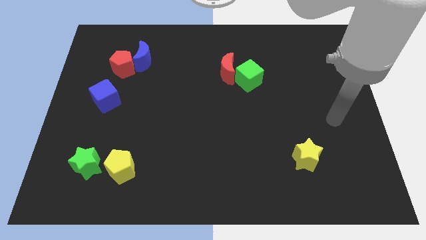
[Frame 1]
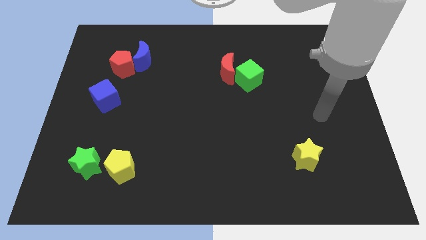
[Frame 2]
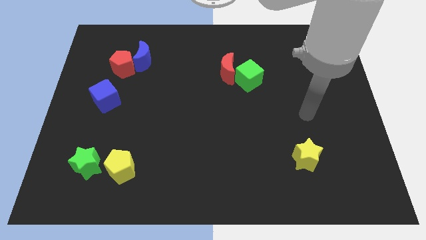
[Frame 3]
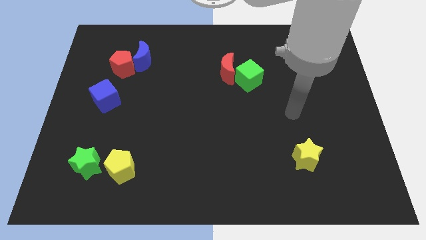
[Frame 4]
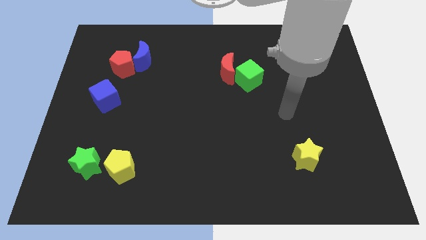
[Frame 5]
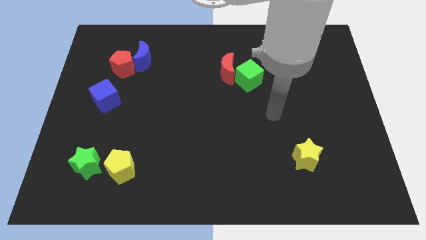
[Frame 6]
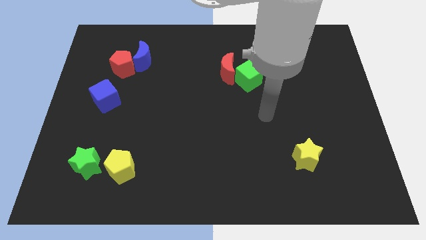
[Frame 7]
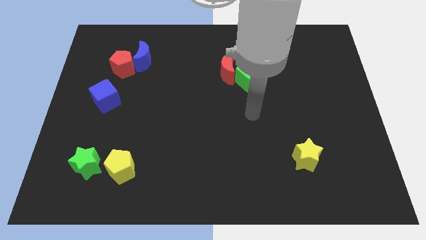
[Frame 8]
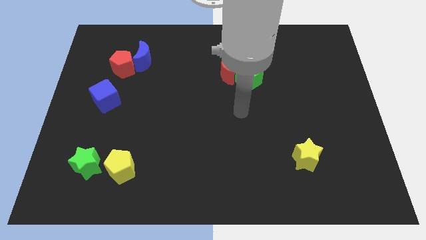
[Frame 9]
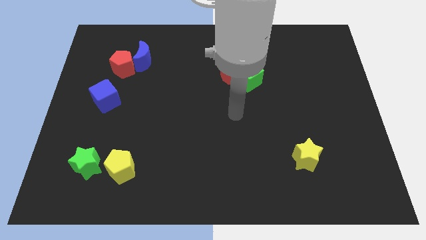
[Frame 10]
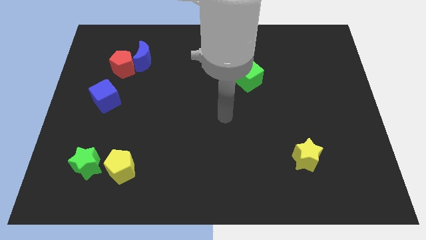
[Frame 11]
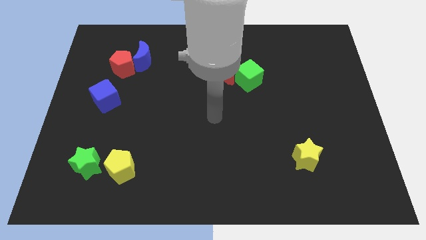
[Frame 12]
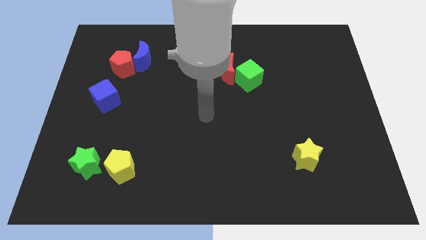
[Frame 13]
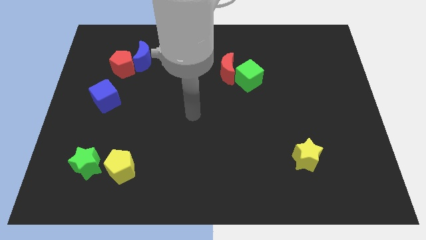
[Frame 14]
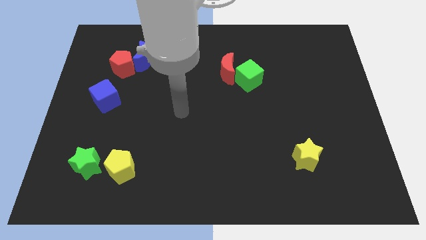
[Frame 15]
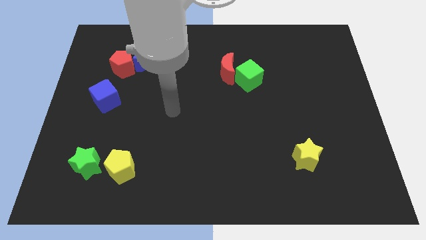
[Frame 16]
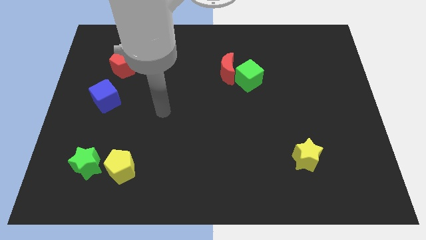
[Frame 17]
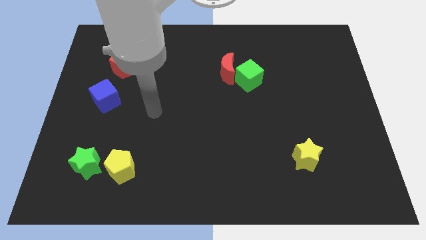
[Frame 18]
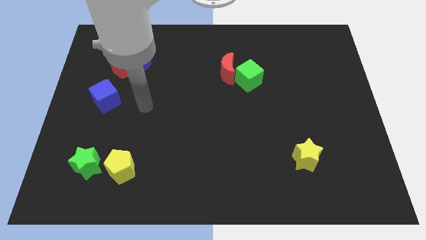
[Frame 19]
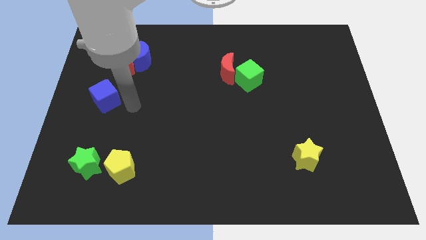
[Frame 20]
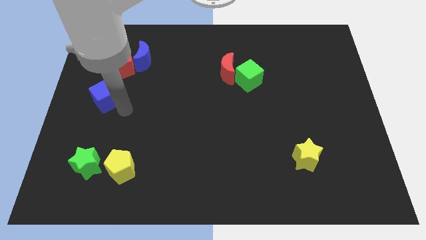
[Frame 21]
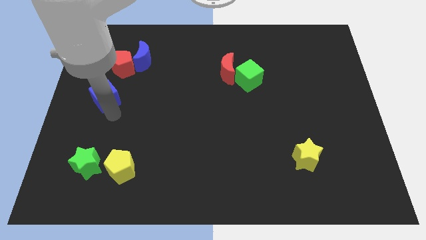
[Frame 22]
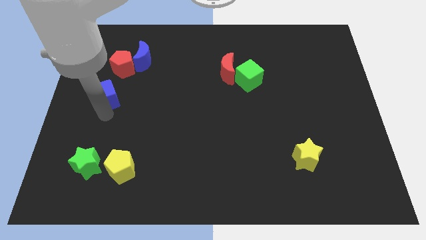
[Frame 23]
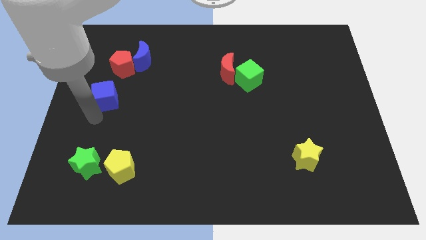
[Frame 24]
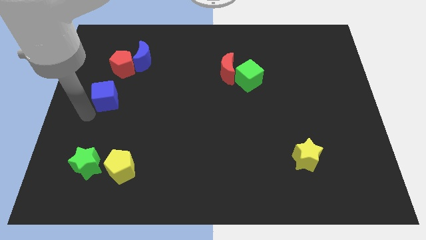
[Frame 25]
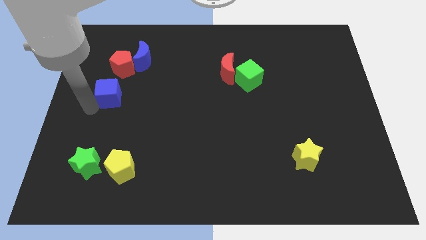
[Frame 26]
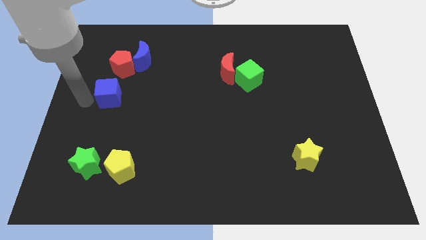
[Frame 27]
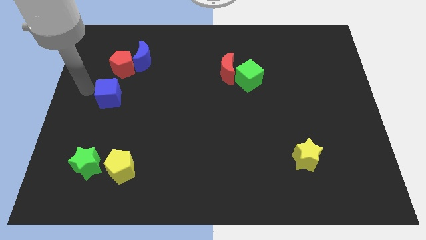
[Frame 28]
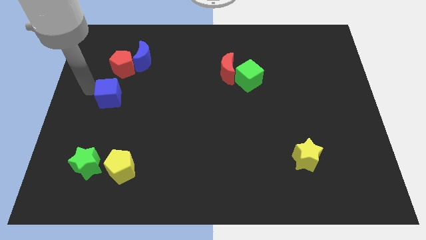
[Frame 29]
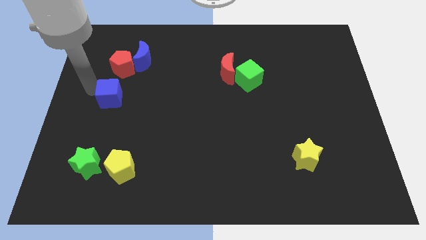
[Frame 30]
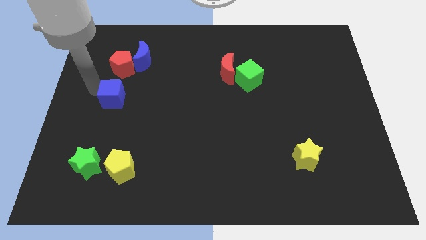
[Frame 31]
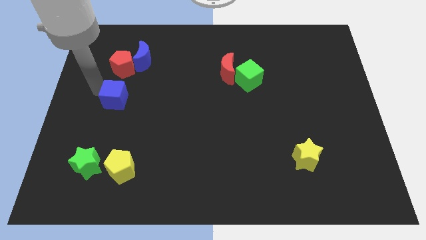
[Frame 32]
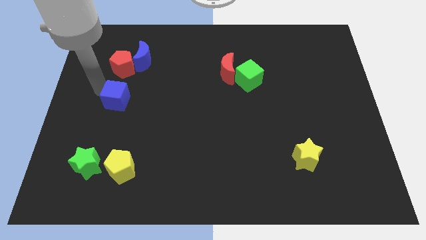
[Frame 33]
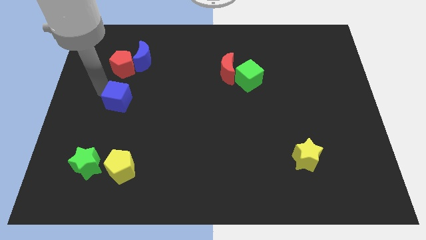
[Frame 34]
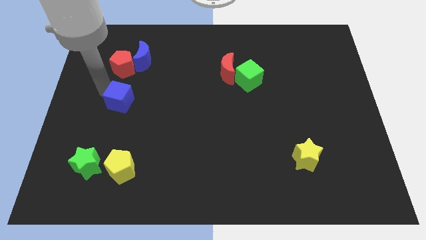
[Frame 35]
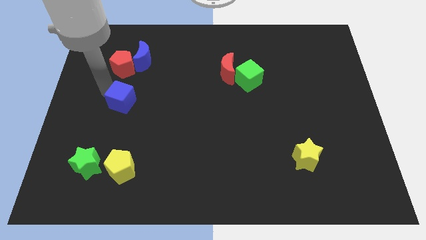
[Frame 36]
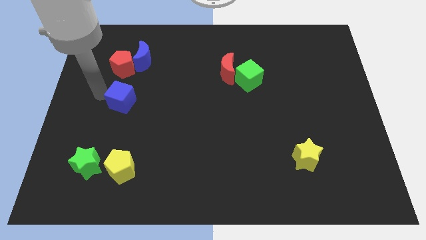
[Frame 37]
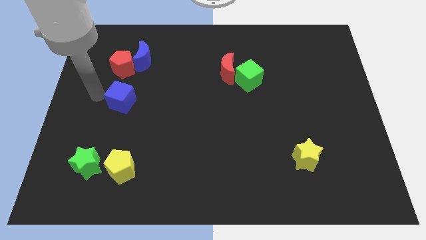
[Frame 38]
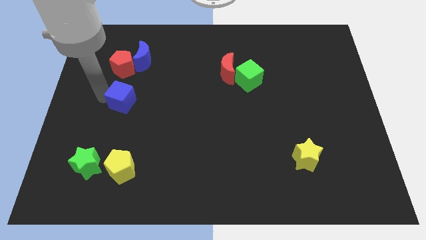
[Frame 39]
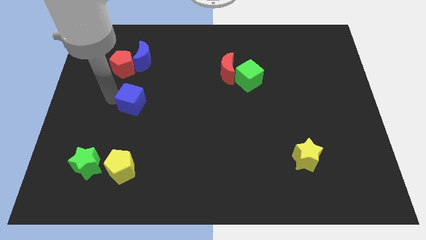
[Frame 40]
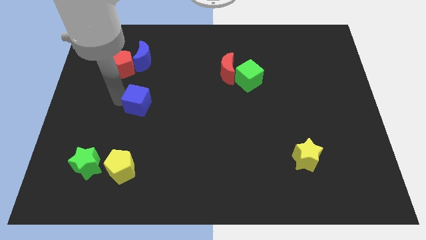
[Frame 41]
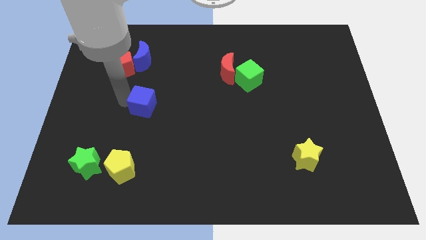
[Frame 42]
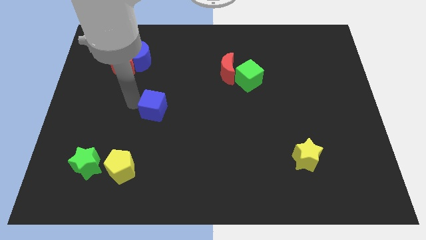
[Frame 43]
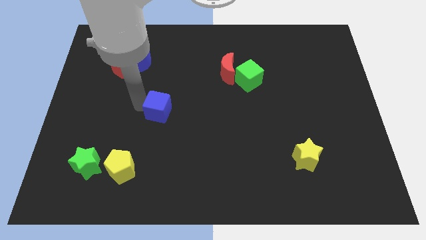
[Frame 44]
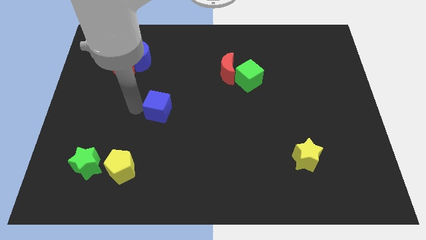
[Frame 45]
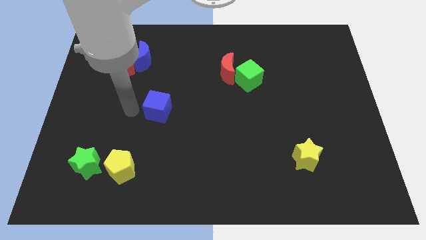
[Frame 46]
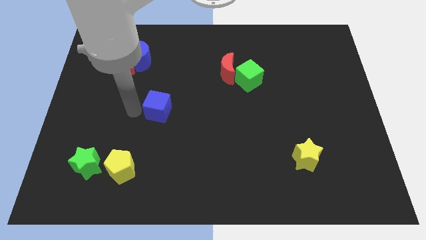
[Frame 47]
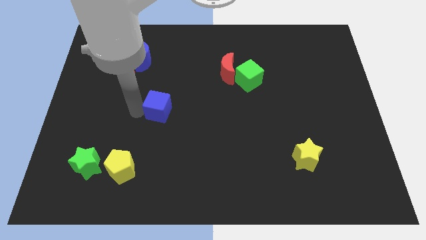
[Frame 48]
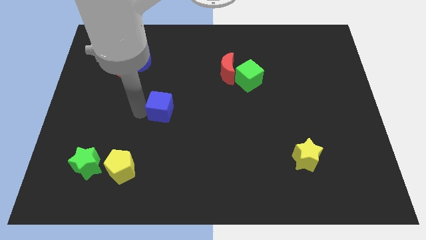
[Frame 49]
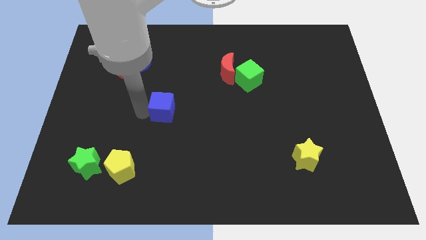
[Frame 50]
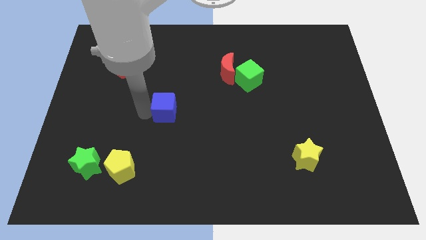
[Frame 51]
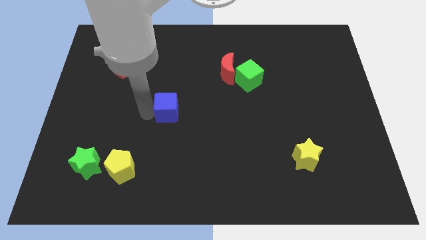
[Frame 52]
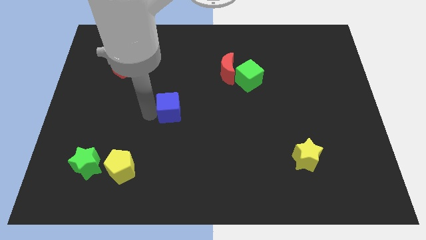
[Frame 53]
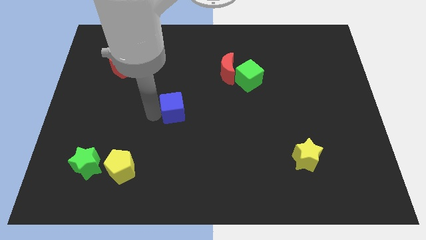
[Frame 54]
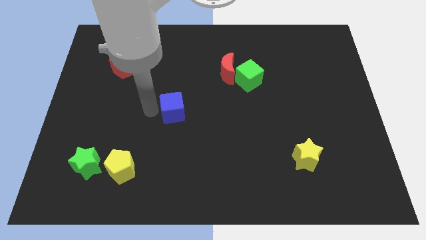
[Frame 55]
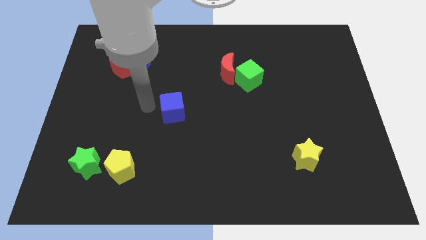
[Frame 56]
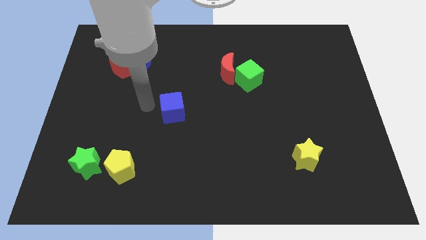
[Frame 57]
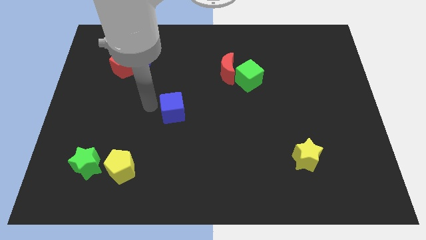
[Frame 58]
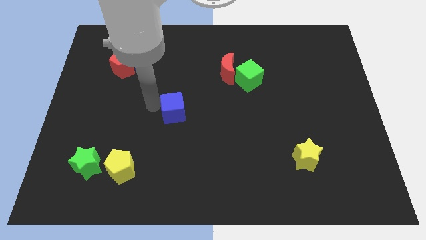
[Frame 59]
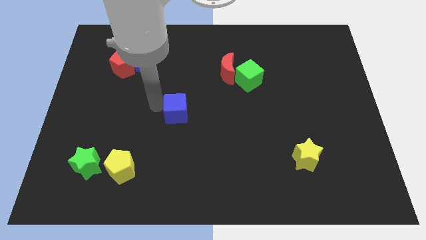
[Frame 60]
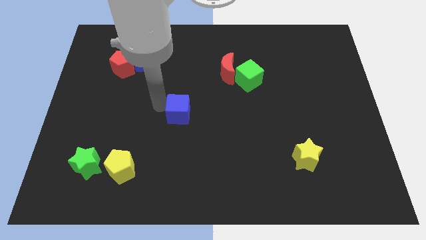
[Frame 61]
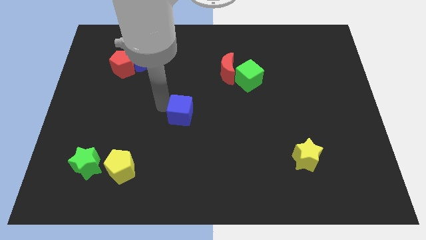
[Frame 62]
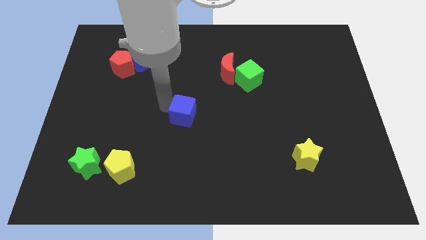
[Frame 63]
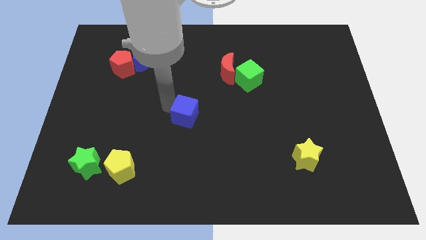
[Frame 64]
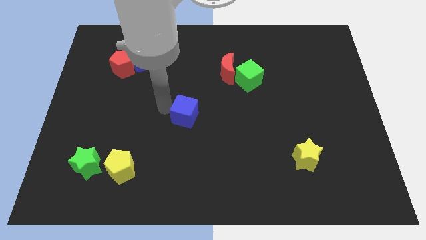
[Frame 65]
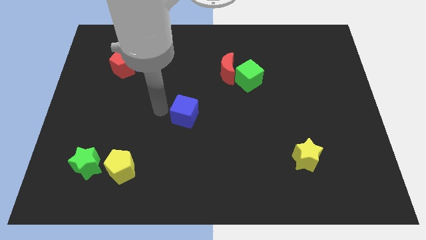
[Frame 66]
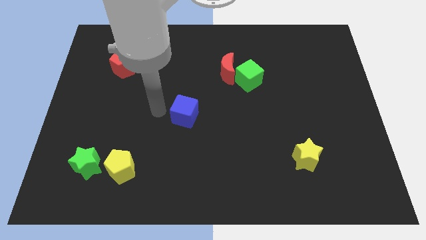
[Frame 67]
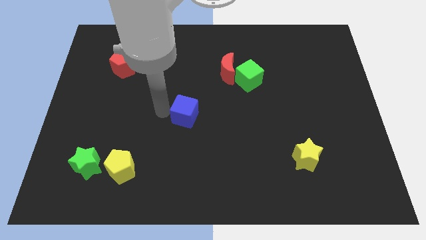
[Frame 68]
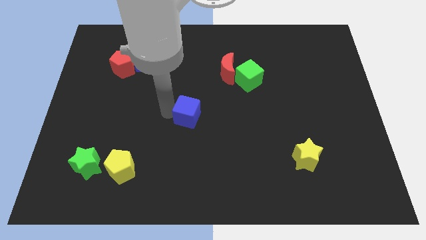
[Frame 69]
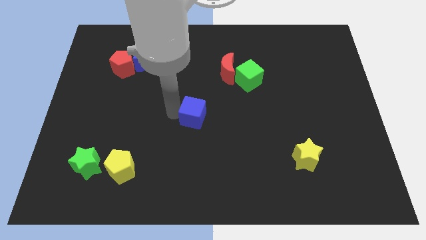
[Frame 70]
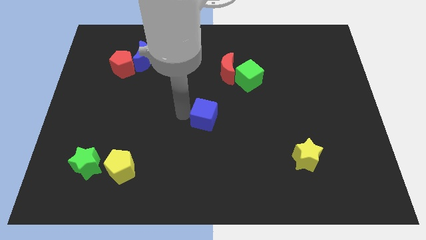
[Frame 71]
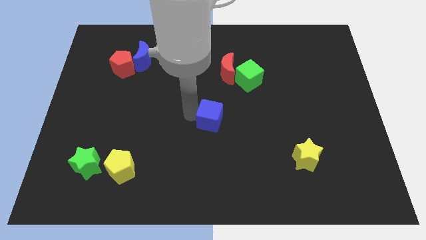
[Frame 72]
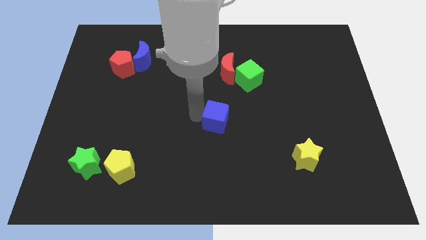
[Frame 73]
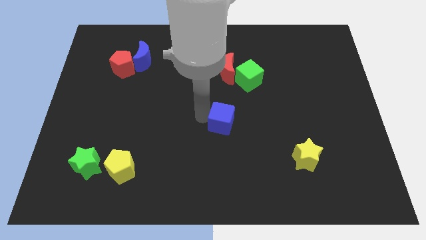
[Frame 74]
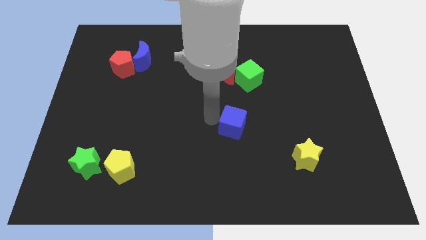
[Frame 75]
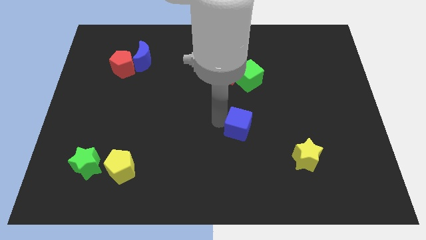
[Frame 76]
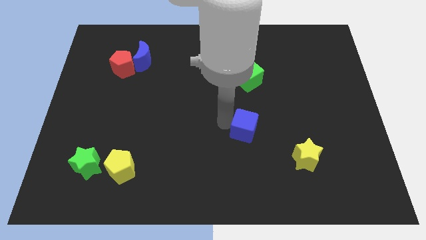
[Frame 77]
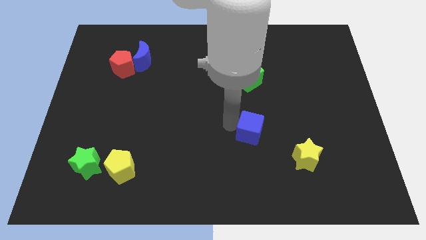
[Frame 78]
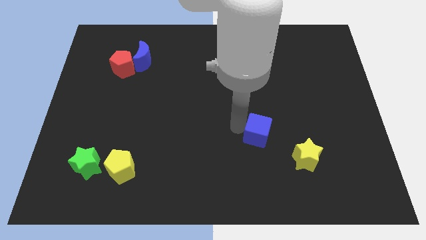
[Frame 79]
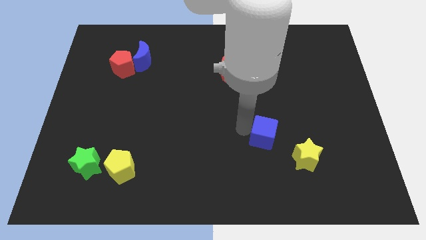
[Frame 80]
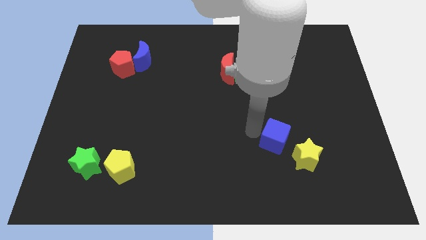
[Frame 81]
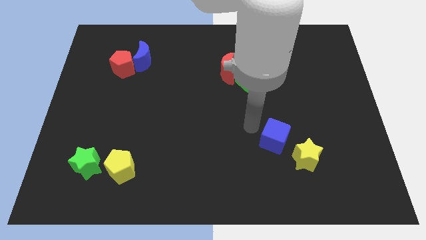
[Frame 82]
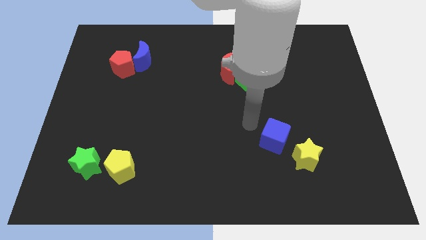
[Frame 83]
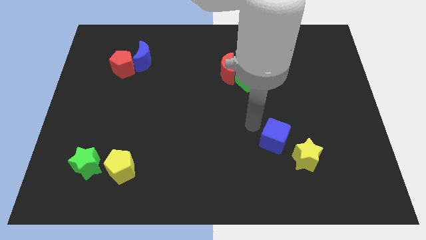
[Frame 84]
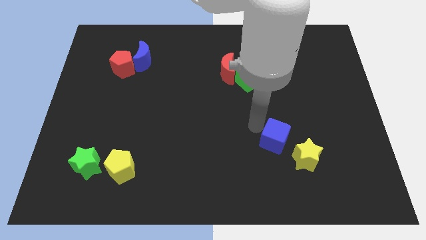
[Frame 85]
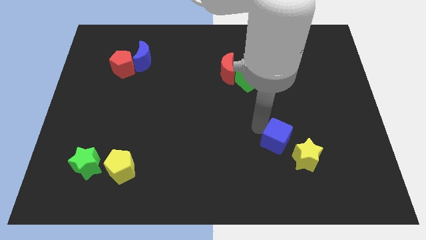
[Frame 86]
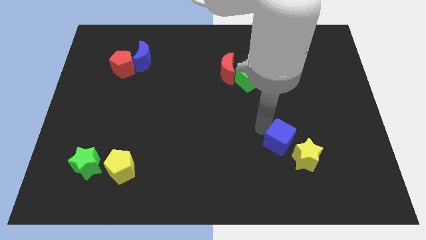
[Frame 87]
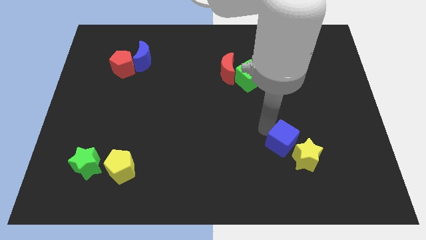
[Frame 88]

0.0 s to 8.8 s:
move the blue cube close to the yellow star
